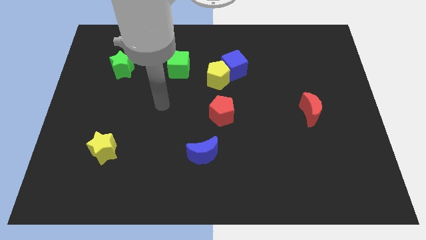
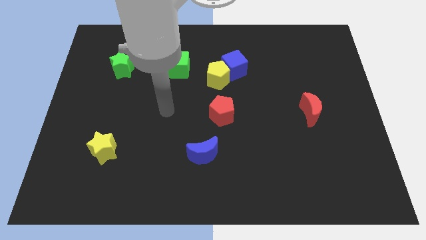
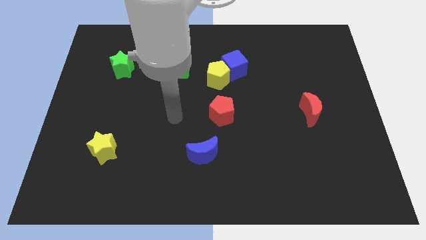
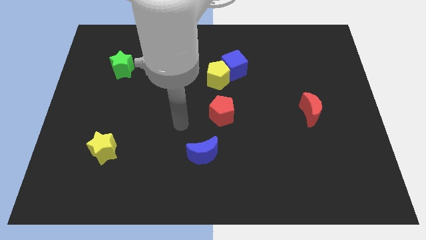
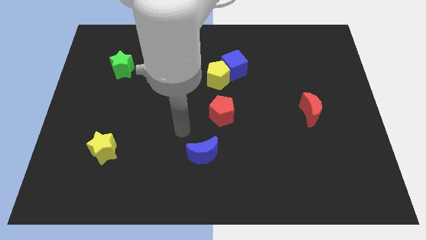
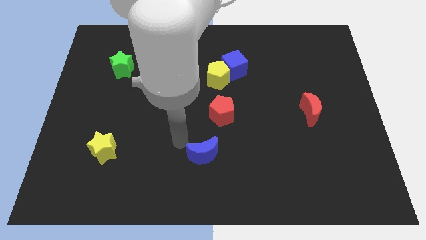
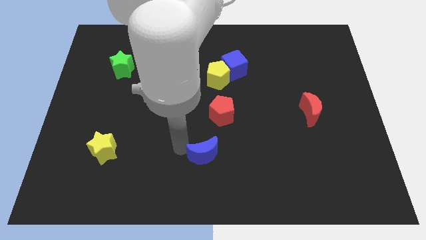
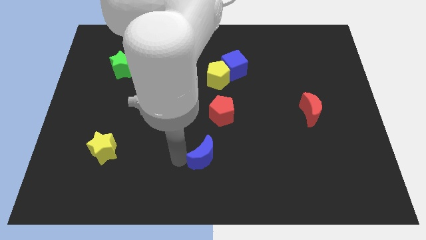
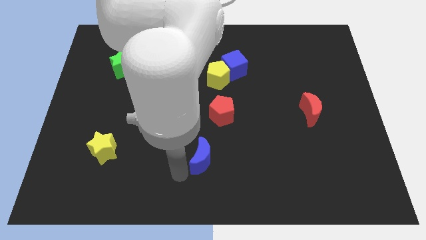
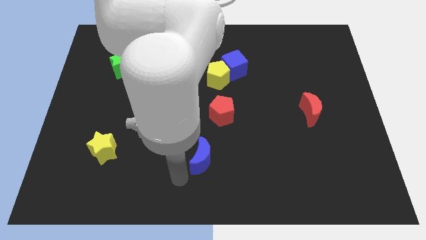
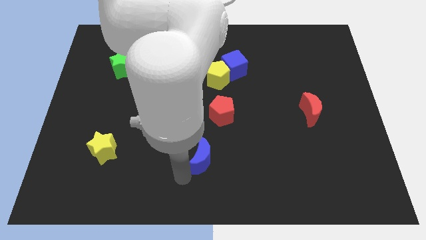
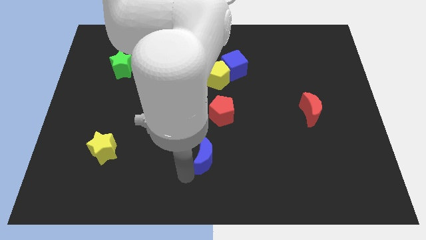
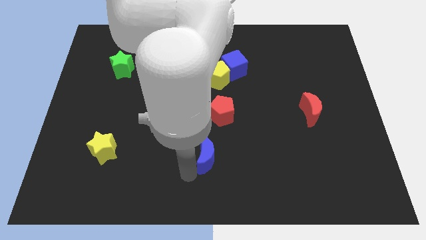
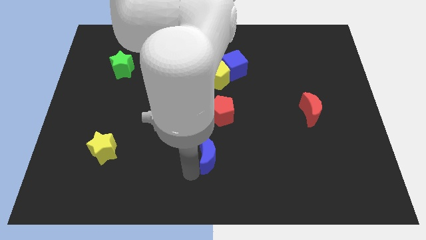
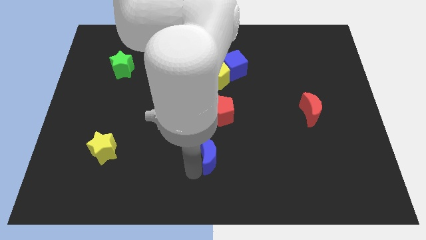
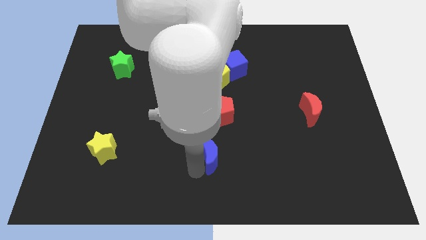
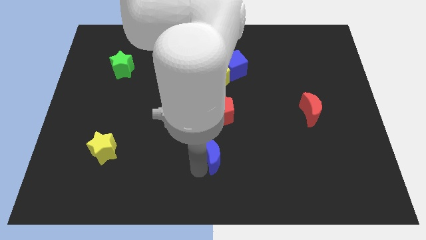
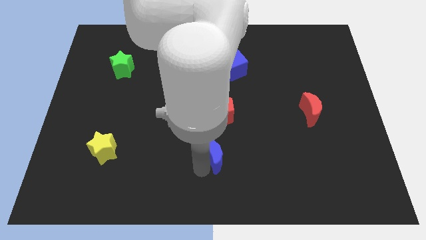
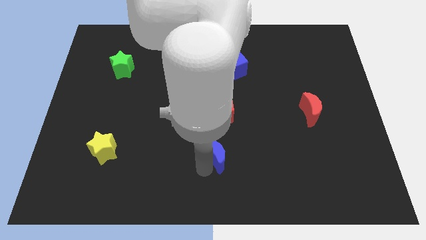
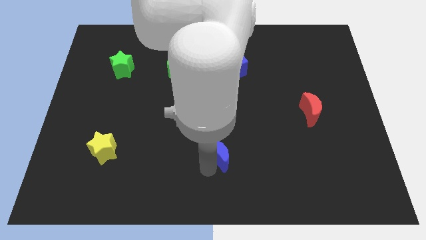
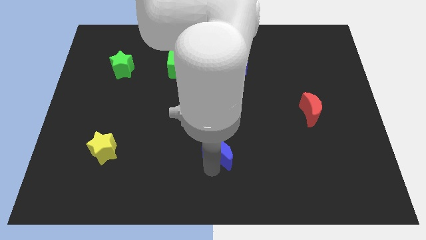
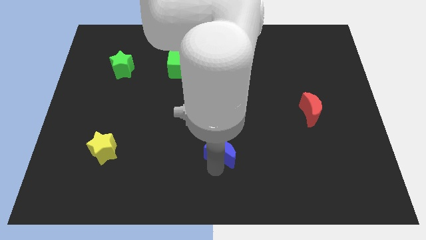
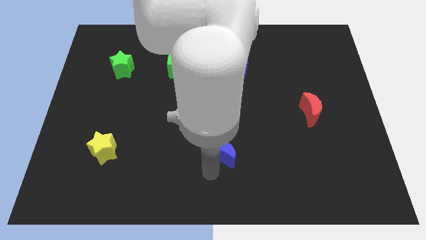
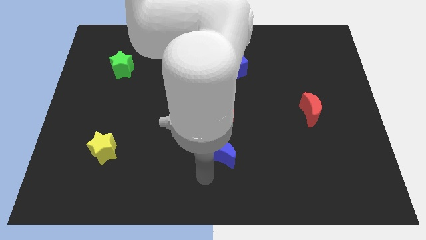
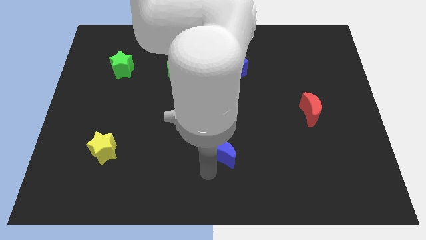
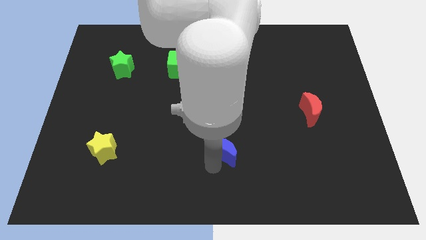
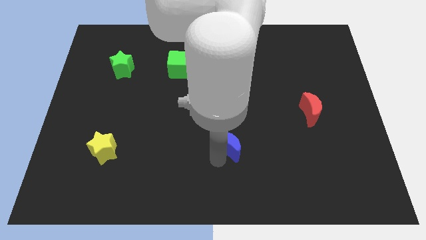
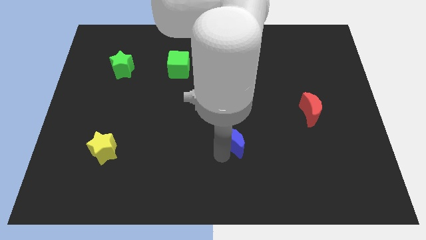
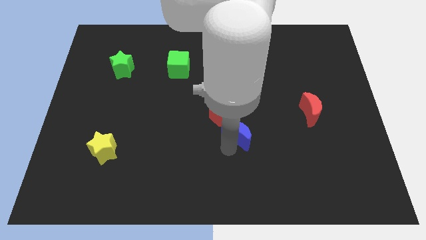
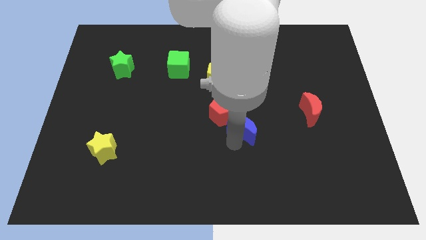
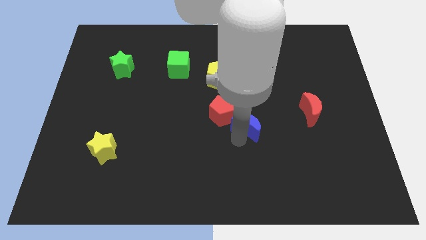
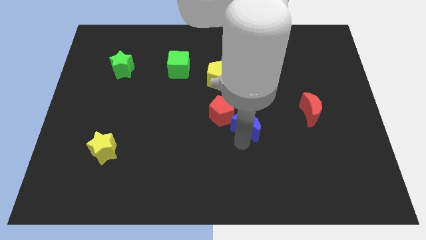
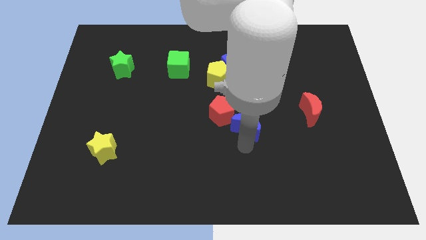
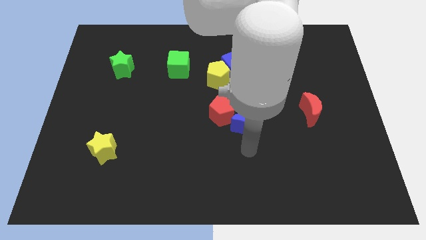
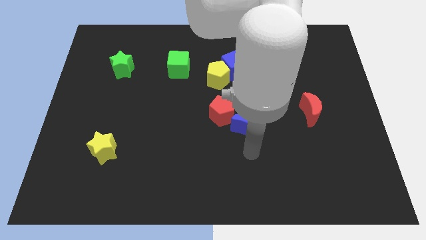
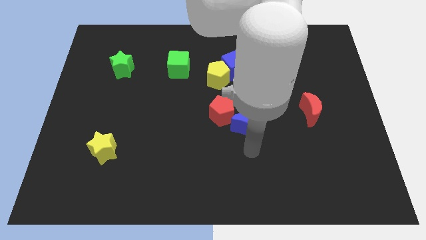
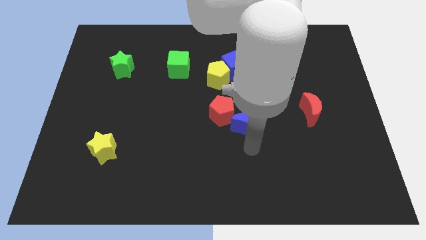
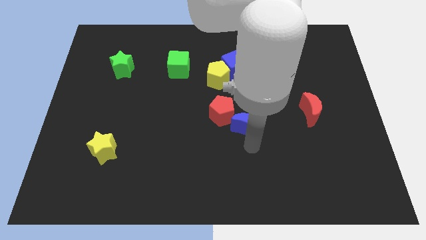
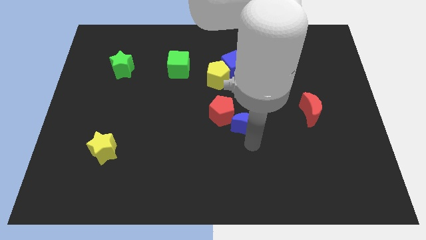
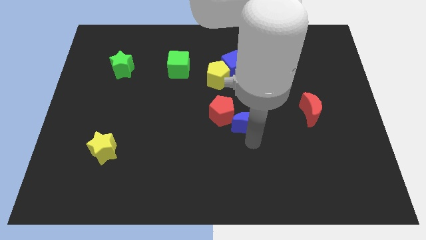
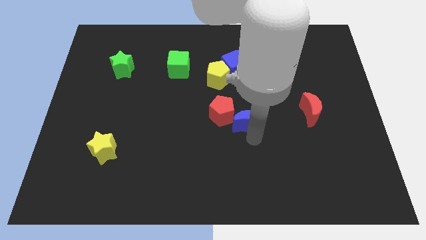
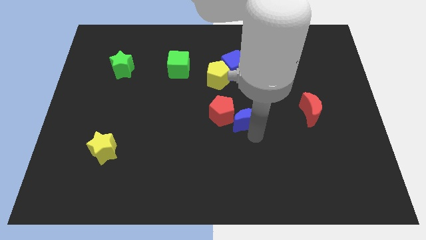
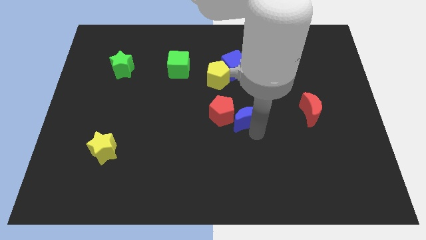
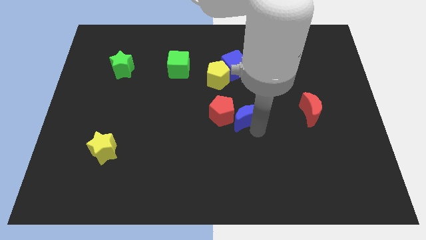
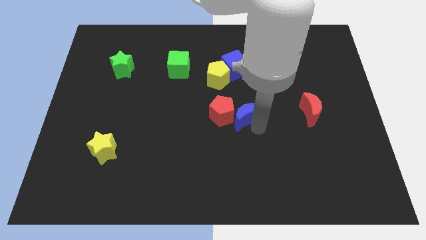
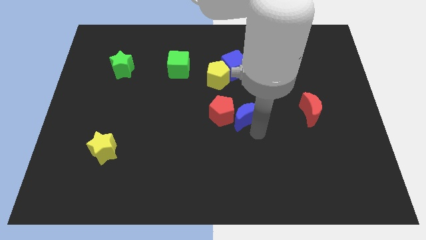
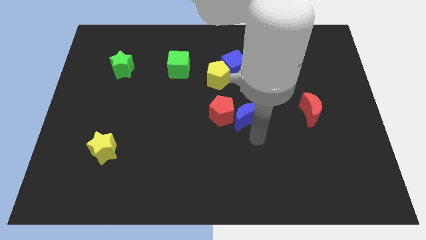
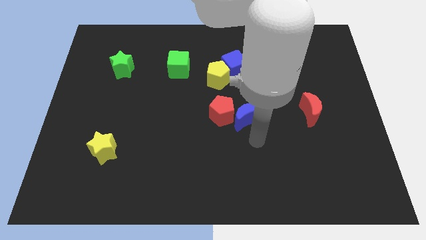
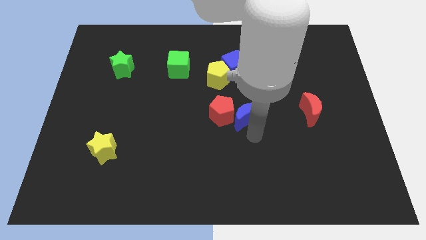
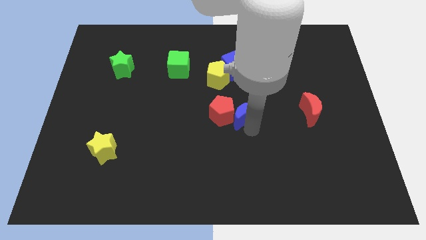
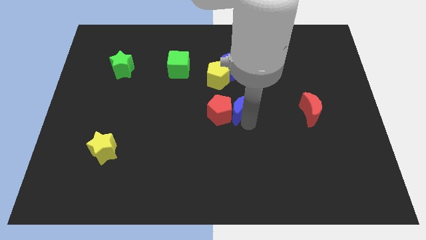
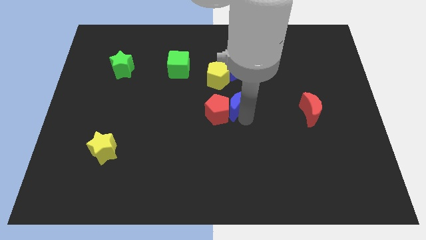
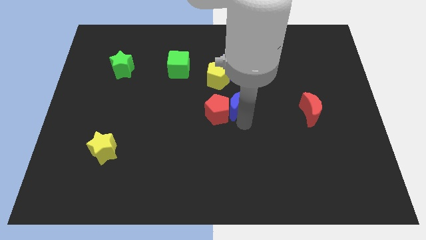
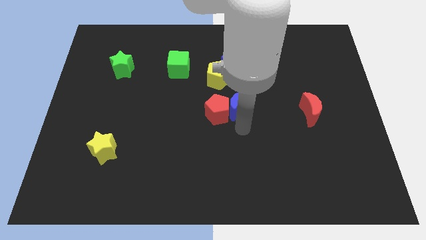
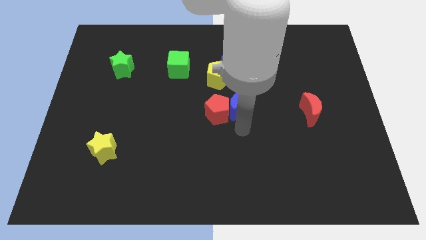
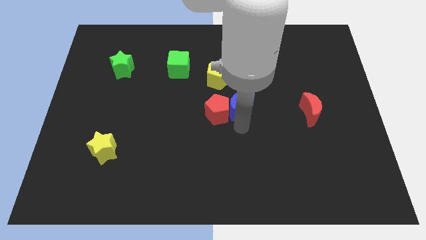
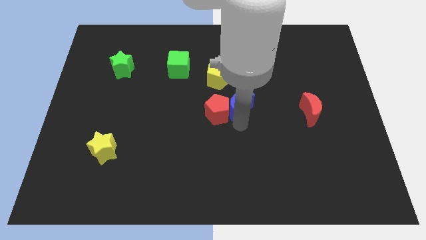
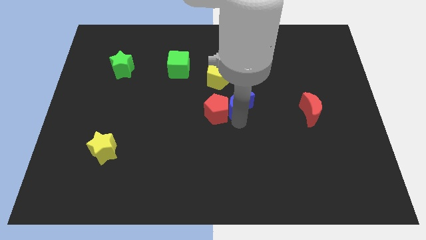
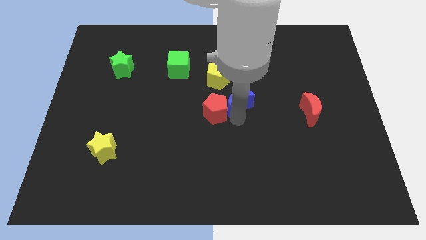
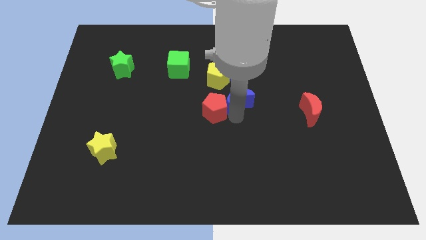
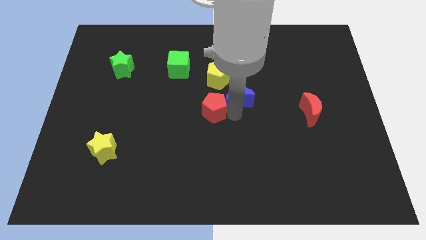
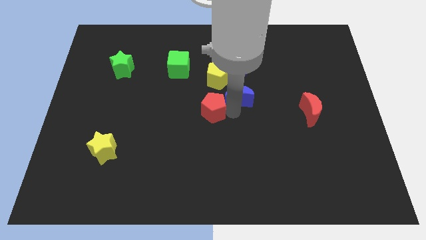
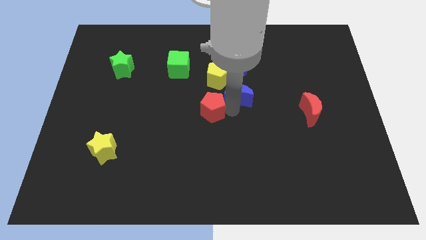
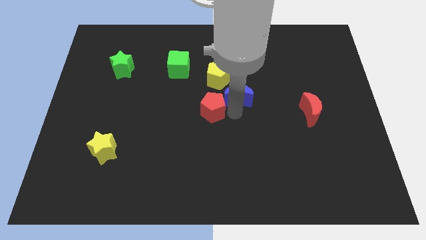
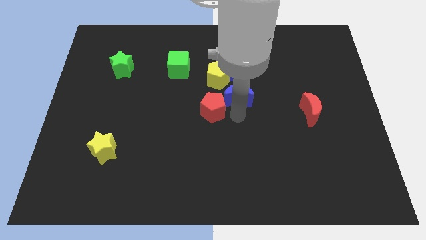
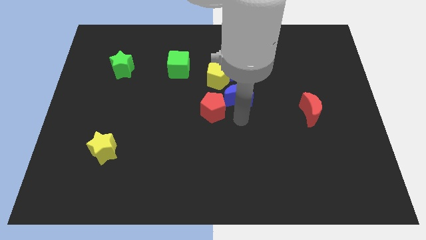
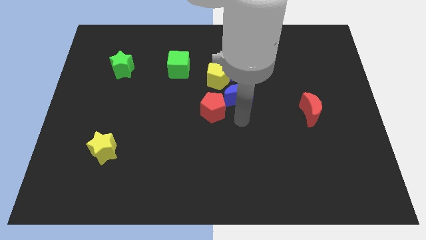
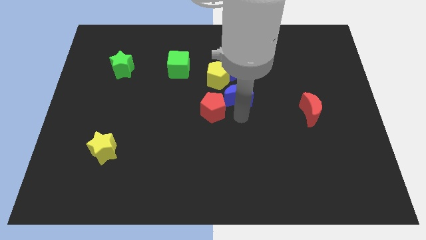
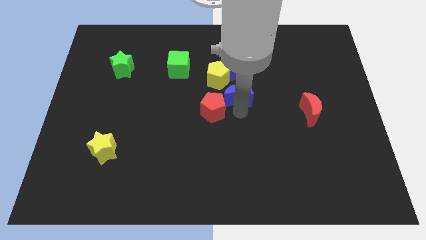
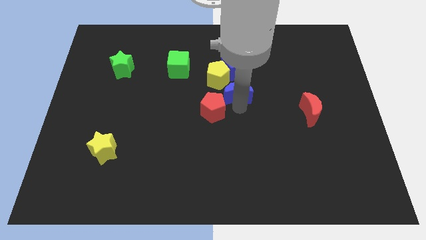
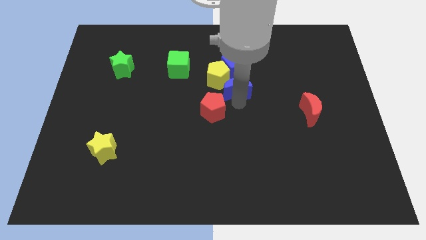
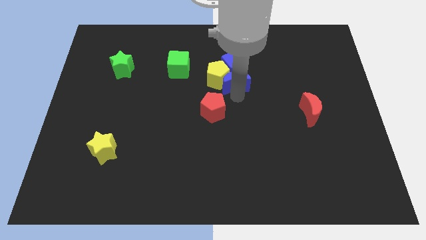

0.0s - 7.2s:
move the blue moon close to the blue cube
